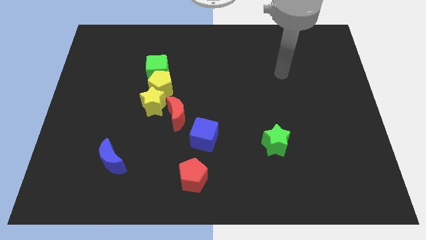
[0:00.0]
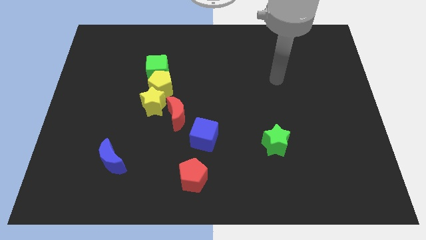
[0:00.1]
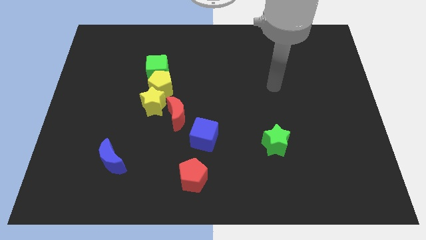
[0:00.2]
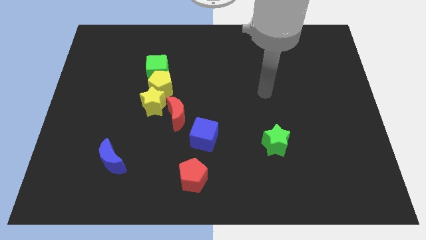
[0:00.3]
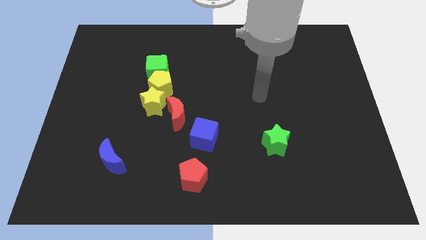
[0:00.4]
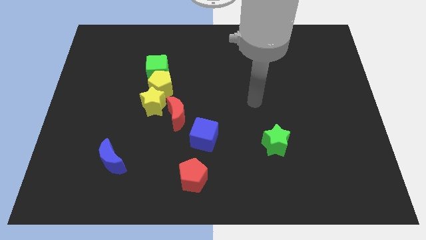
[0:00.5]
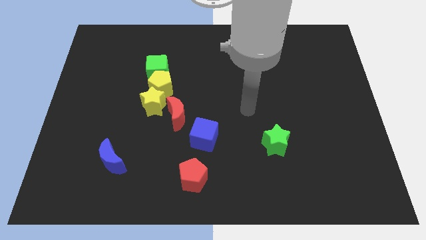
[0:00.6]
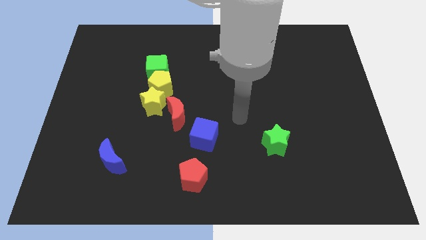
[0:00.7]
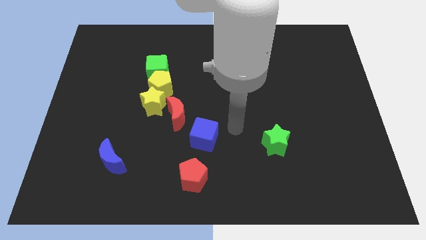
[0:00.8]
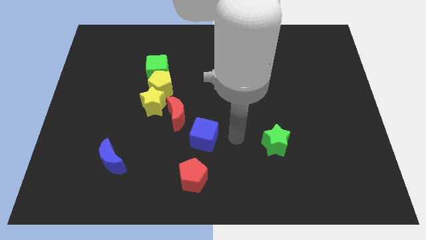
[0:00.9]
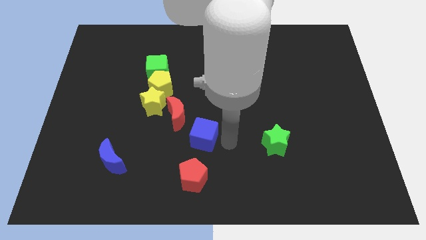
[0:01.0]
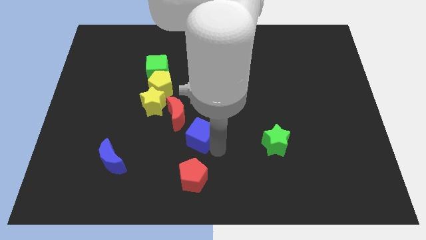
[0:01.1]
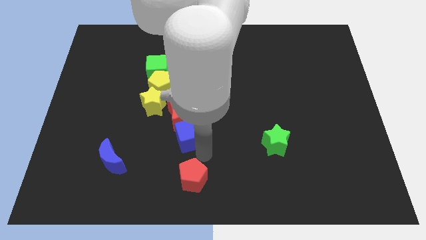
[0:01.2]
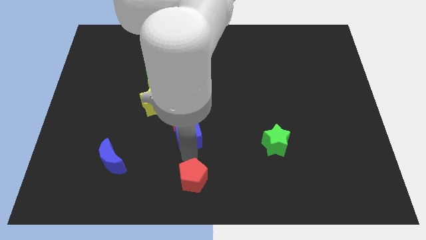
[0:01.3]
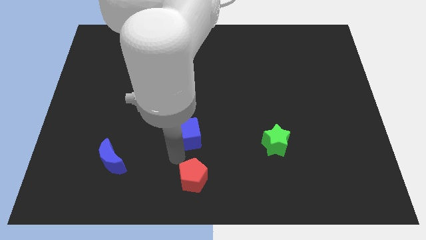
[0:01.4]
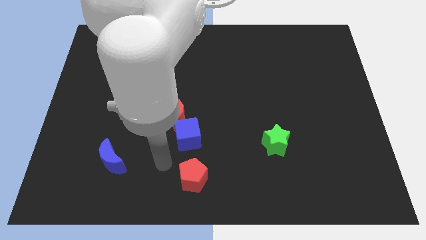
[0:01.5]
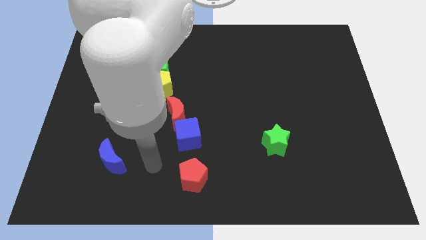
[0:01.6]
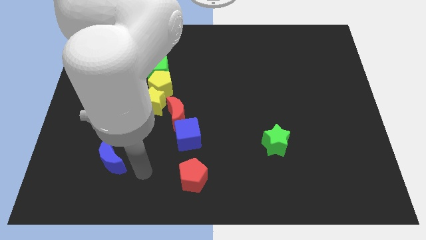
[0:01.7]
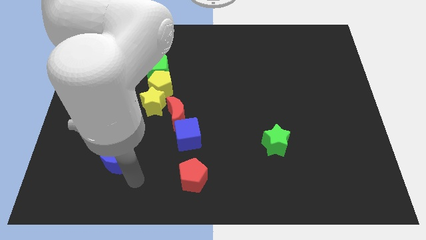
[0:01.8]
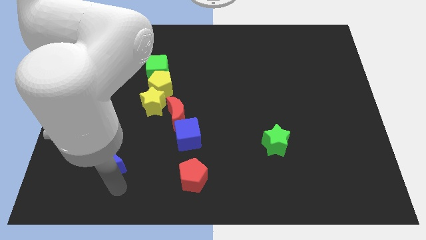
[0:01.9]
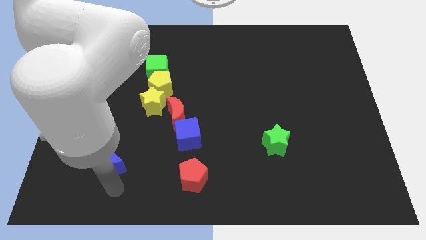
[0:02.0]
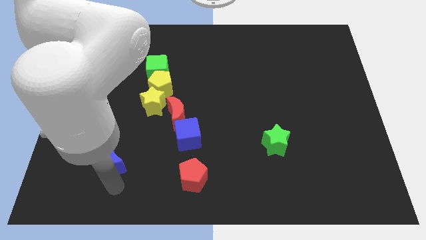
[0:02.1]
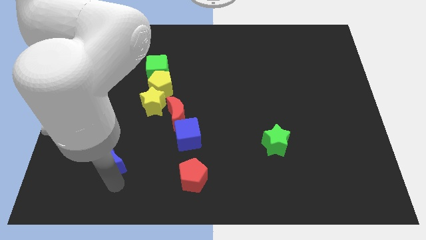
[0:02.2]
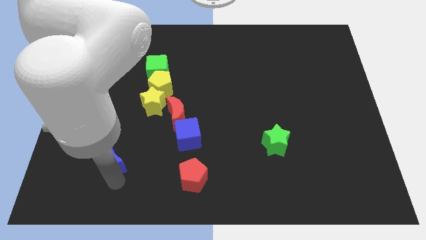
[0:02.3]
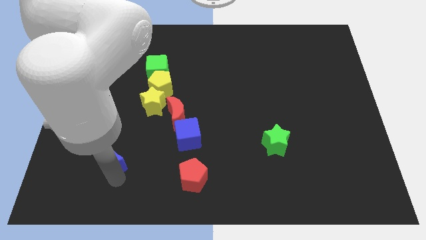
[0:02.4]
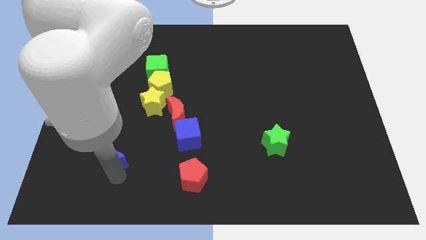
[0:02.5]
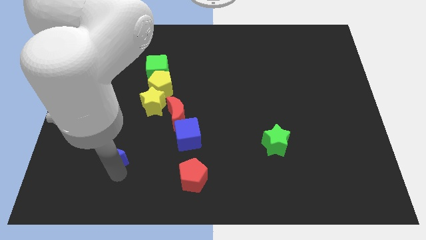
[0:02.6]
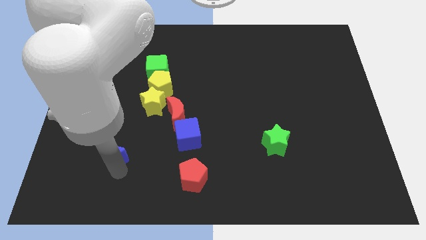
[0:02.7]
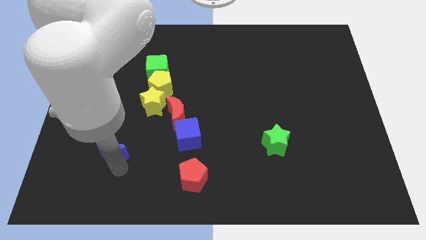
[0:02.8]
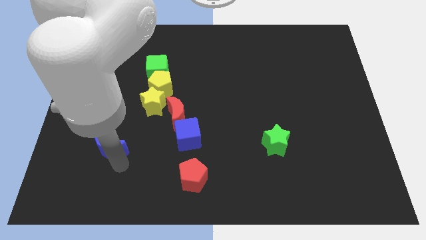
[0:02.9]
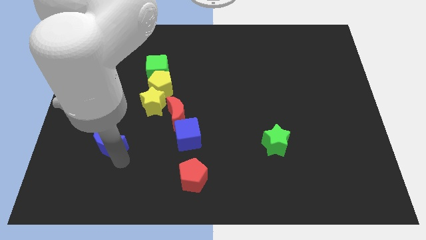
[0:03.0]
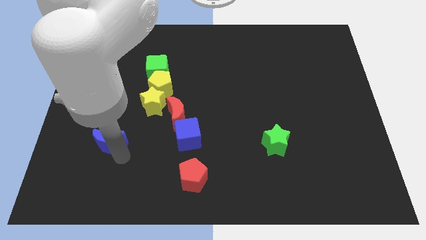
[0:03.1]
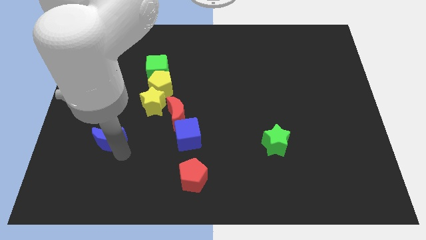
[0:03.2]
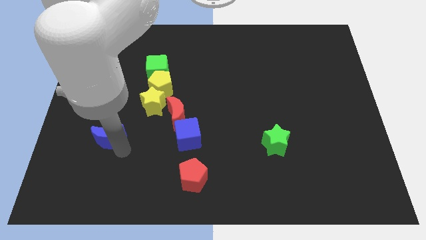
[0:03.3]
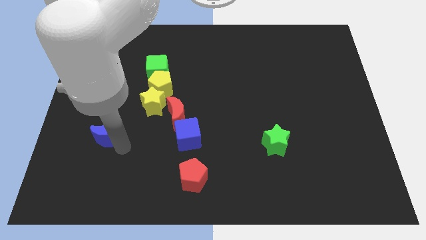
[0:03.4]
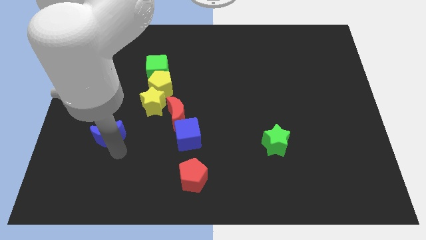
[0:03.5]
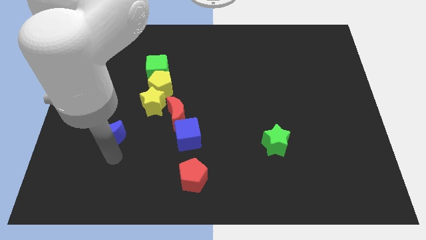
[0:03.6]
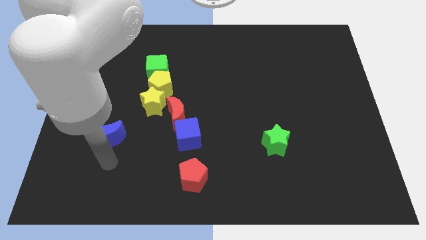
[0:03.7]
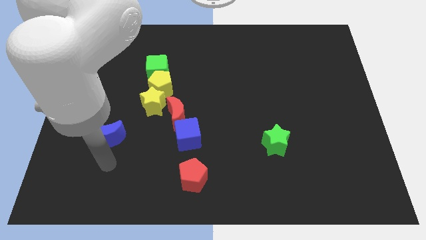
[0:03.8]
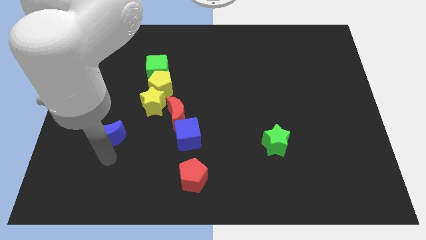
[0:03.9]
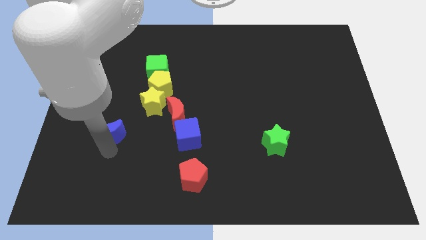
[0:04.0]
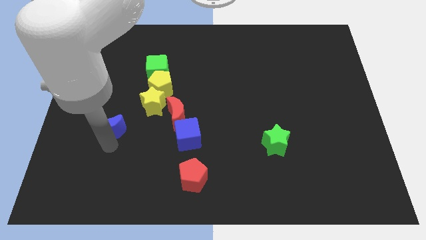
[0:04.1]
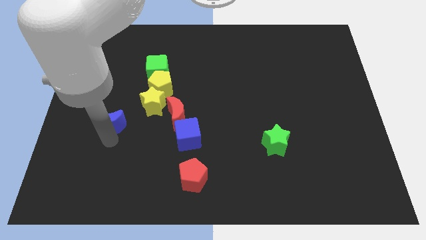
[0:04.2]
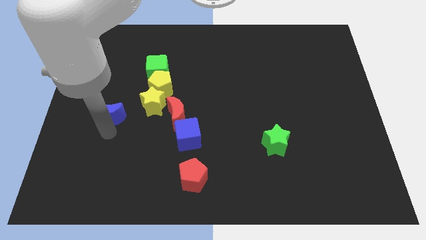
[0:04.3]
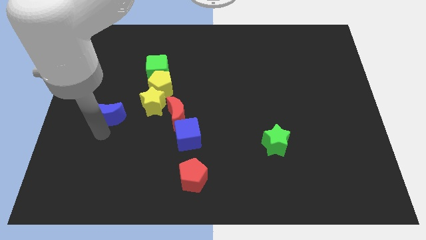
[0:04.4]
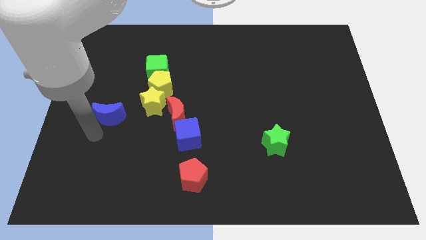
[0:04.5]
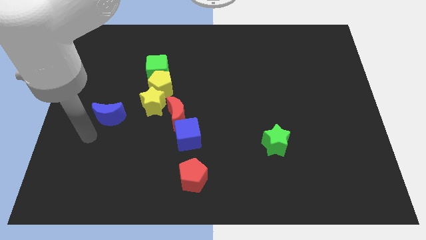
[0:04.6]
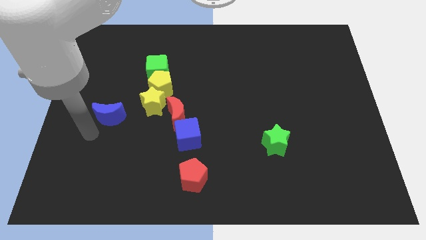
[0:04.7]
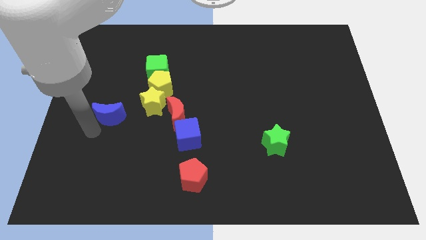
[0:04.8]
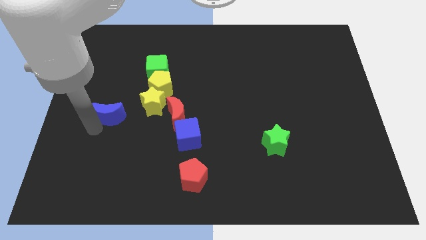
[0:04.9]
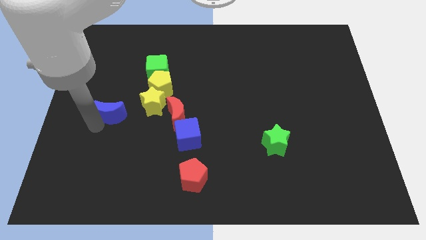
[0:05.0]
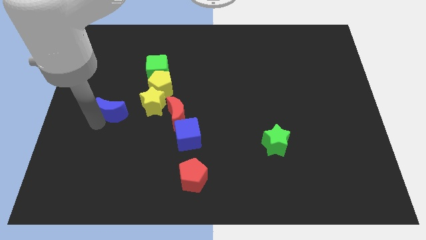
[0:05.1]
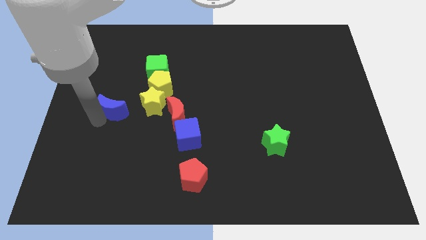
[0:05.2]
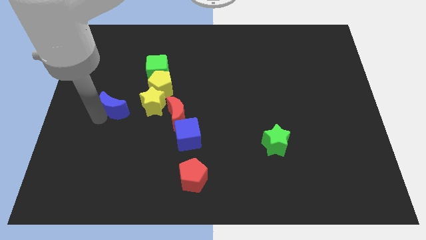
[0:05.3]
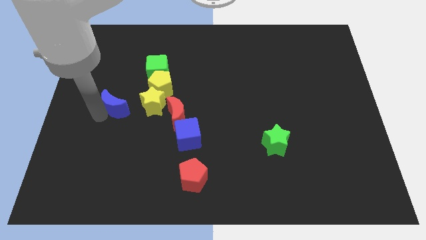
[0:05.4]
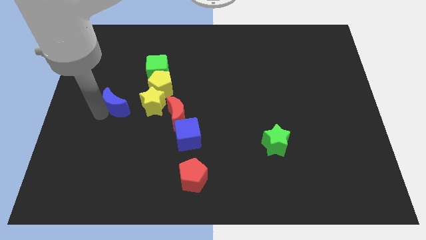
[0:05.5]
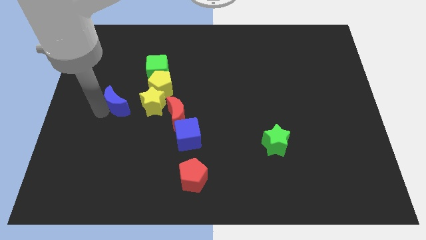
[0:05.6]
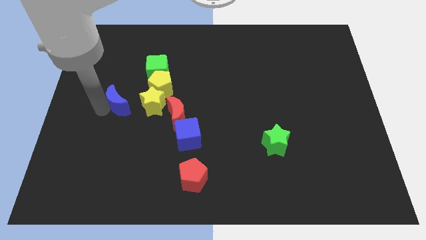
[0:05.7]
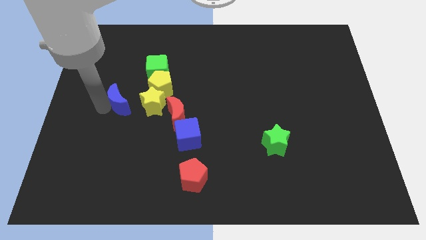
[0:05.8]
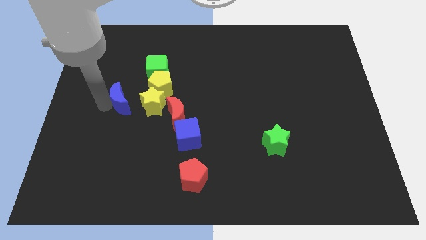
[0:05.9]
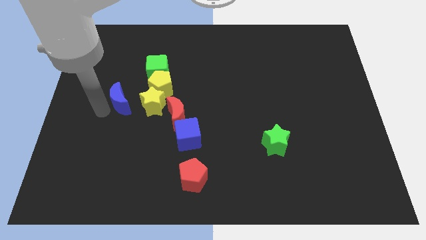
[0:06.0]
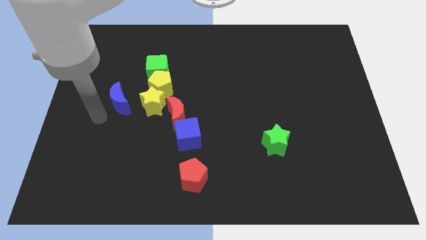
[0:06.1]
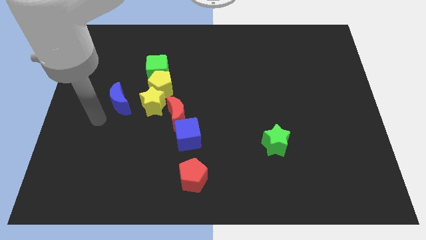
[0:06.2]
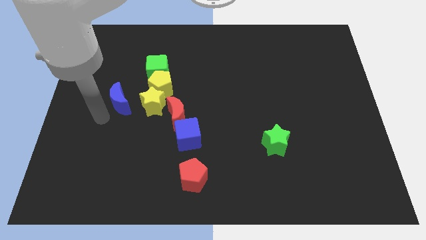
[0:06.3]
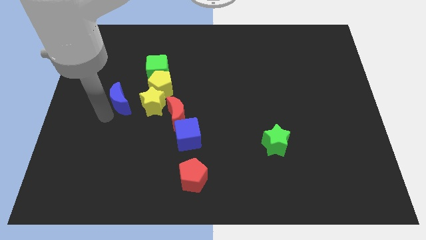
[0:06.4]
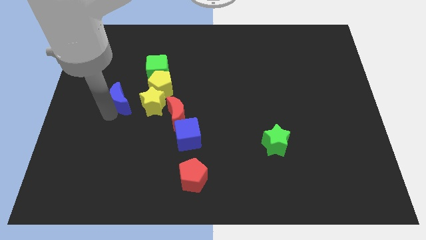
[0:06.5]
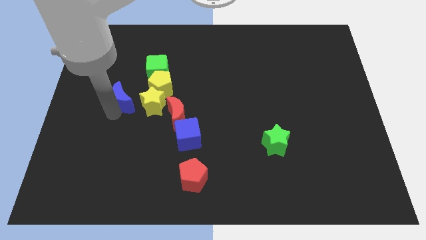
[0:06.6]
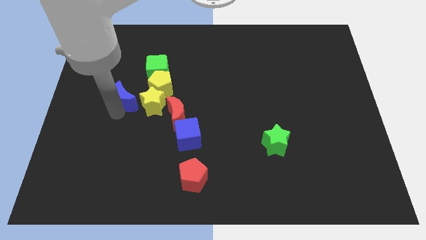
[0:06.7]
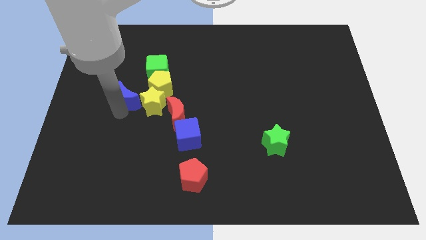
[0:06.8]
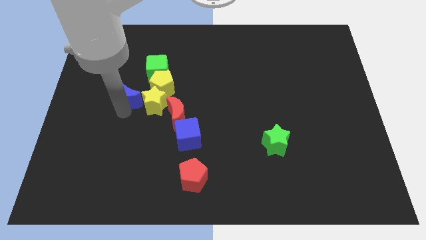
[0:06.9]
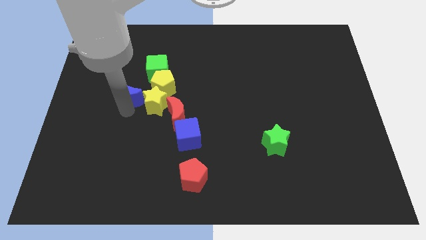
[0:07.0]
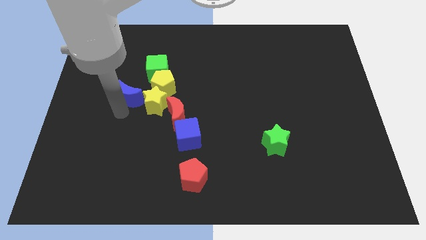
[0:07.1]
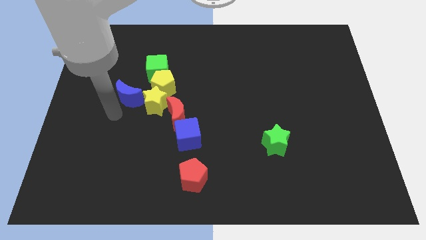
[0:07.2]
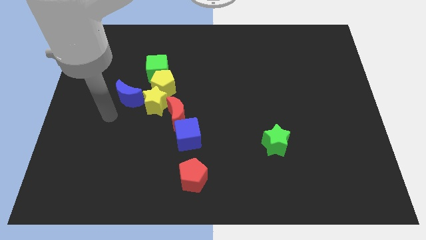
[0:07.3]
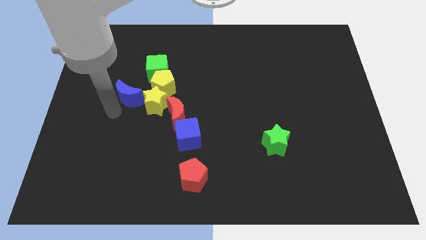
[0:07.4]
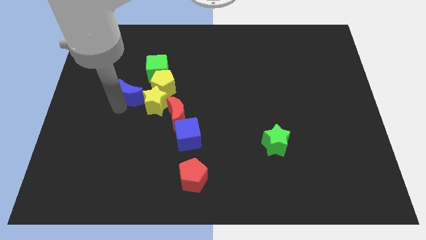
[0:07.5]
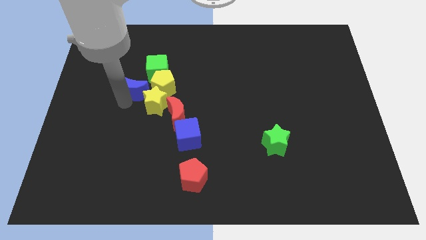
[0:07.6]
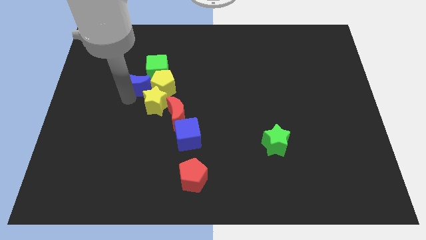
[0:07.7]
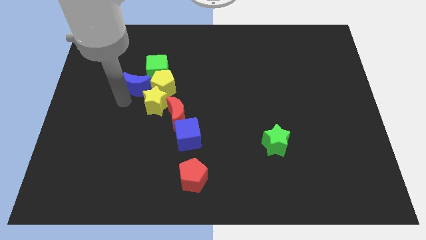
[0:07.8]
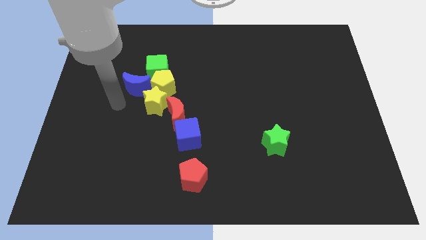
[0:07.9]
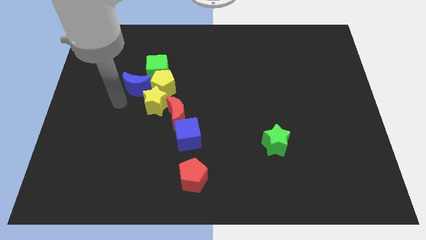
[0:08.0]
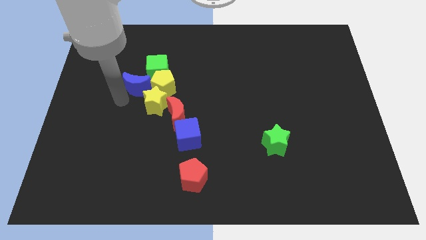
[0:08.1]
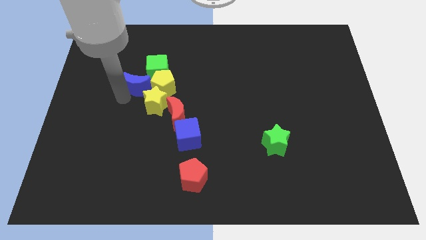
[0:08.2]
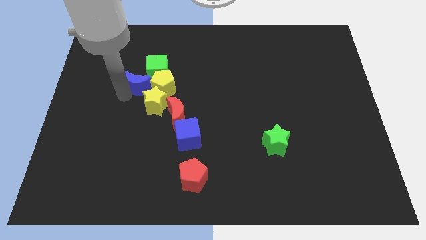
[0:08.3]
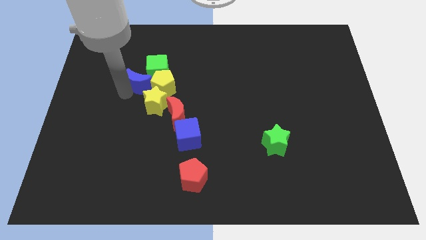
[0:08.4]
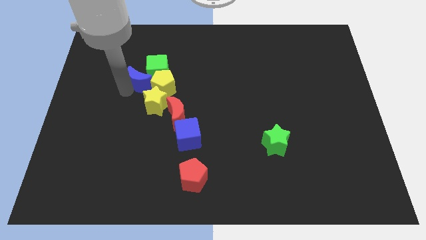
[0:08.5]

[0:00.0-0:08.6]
push the blue moon towards the green cube

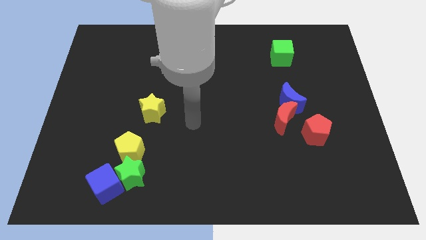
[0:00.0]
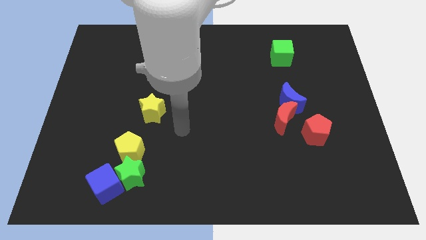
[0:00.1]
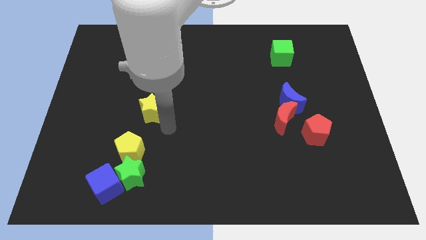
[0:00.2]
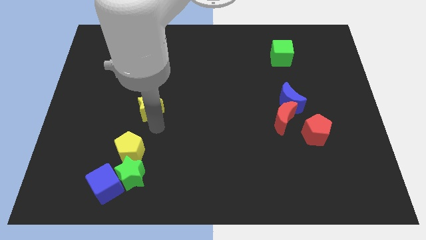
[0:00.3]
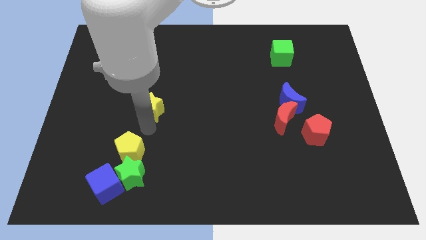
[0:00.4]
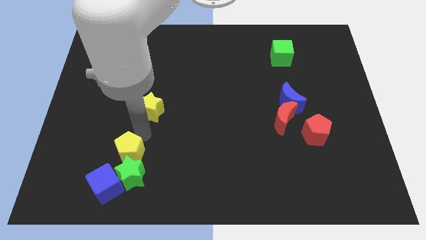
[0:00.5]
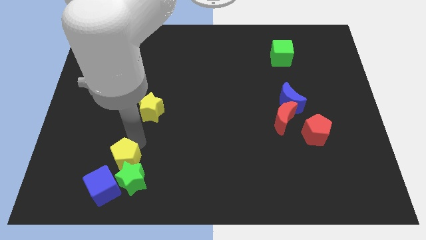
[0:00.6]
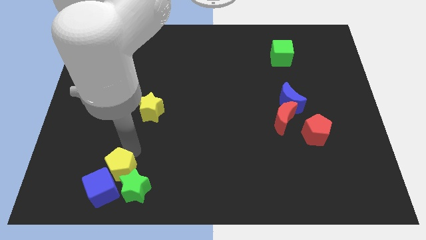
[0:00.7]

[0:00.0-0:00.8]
move the yellow pentagon next to the blue cube
